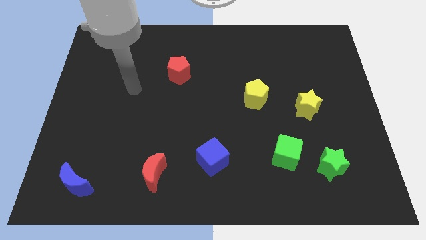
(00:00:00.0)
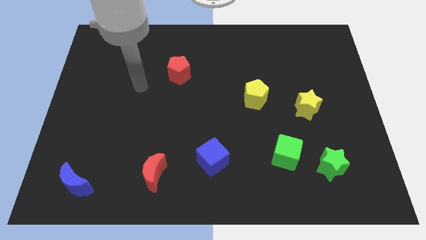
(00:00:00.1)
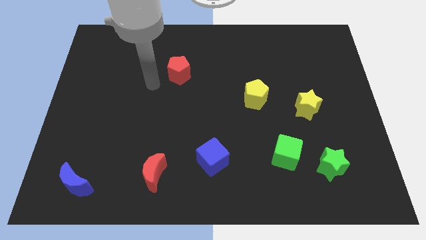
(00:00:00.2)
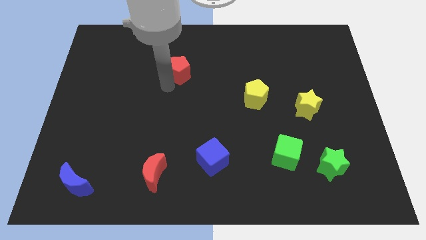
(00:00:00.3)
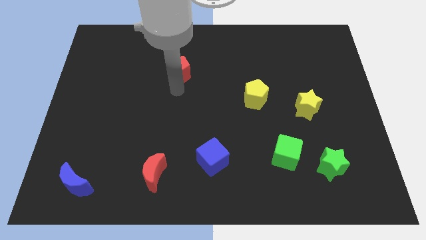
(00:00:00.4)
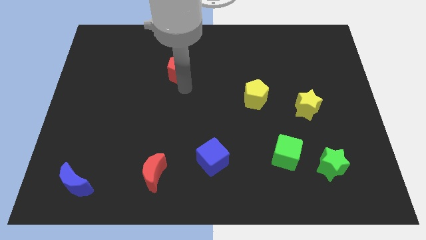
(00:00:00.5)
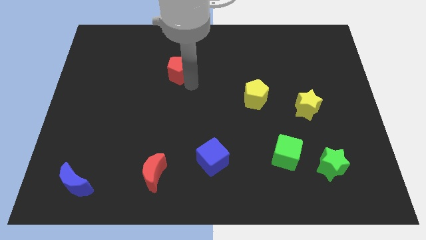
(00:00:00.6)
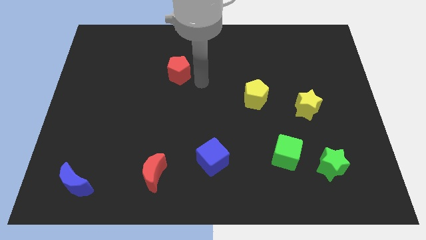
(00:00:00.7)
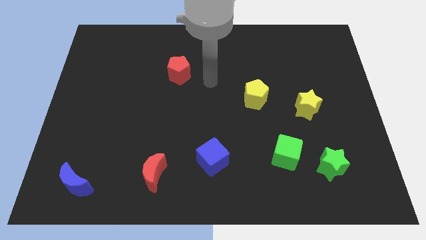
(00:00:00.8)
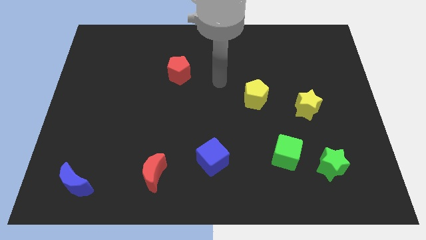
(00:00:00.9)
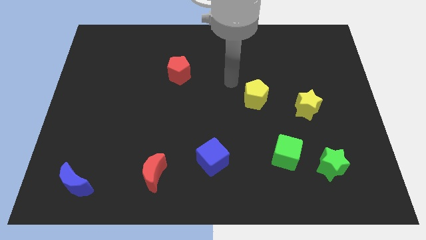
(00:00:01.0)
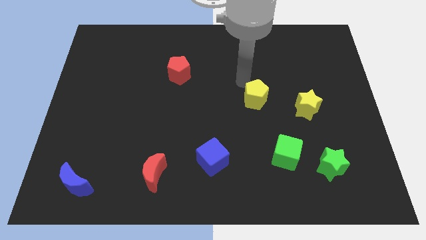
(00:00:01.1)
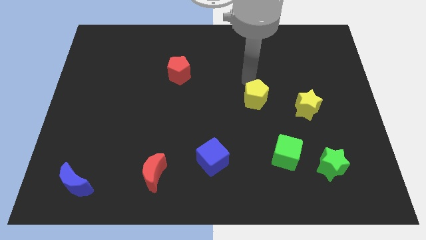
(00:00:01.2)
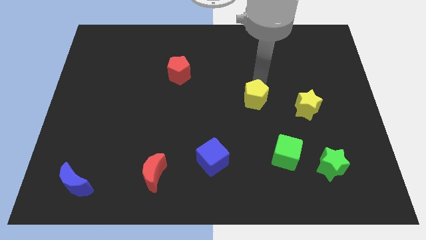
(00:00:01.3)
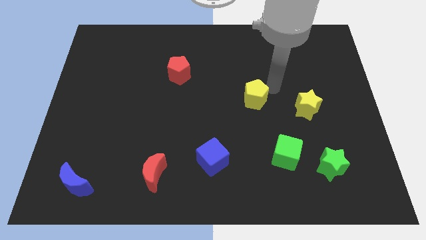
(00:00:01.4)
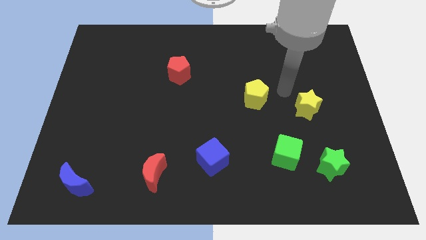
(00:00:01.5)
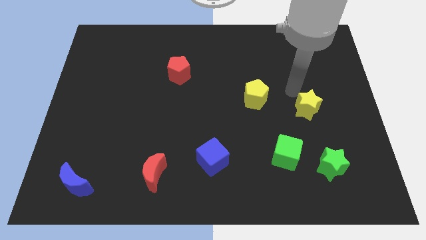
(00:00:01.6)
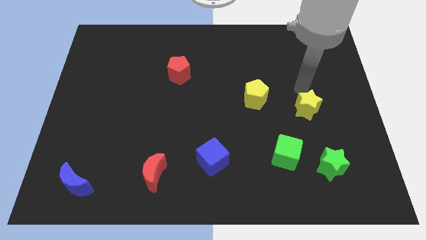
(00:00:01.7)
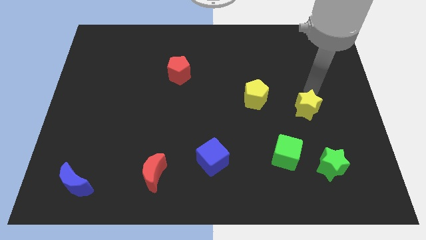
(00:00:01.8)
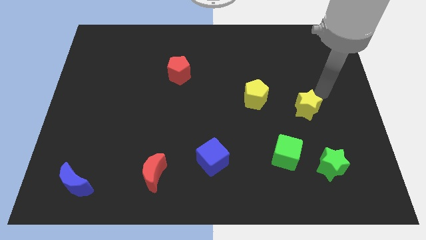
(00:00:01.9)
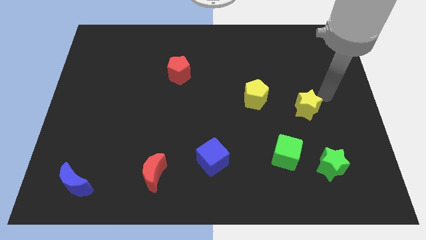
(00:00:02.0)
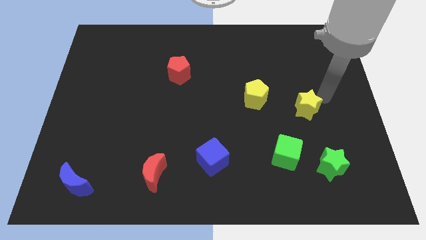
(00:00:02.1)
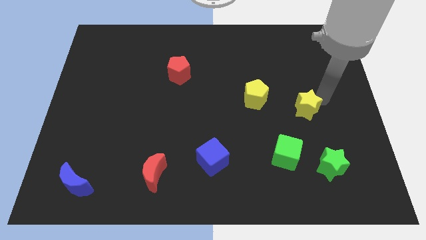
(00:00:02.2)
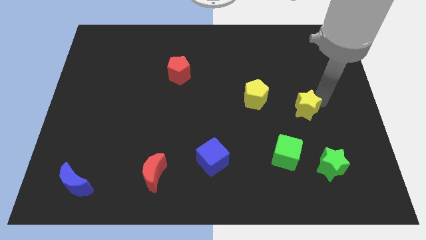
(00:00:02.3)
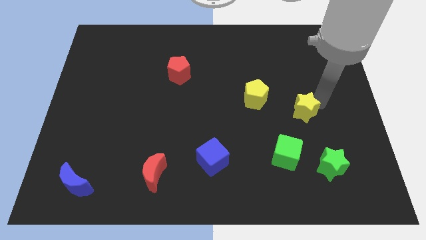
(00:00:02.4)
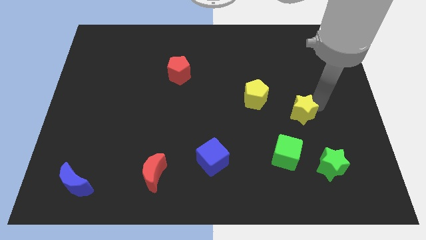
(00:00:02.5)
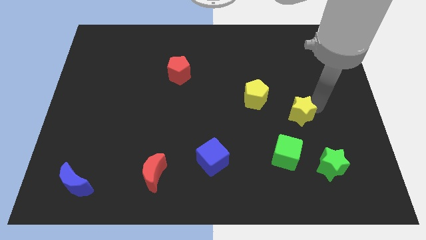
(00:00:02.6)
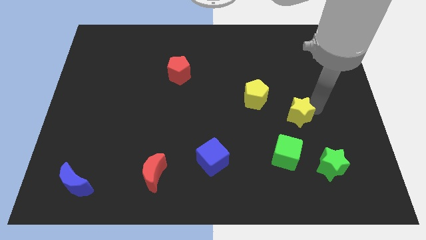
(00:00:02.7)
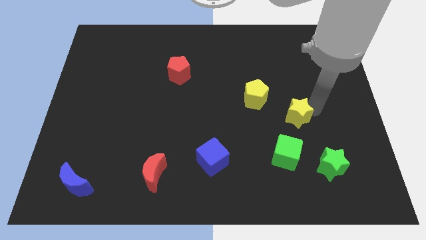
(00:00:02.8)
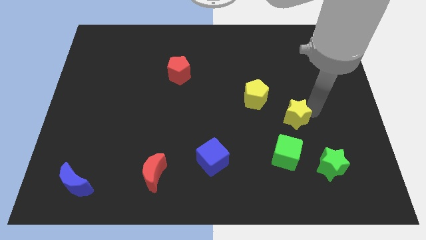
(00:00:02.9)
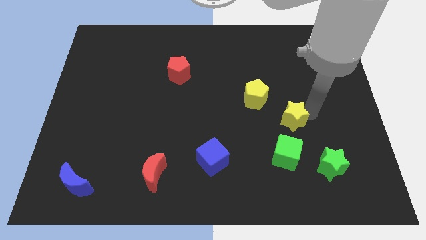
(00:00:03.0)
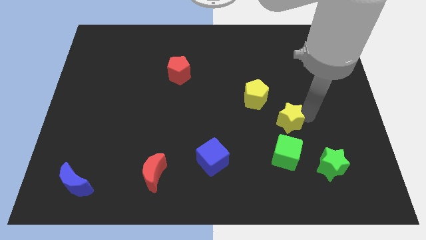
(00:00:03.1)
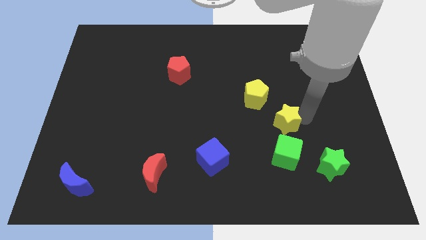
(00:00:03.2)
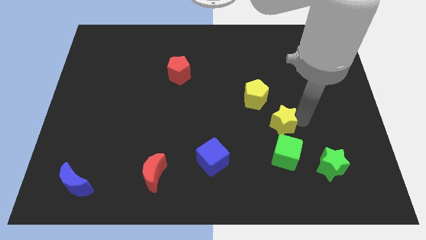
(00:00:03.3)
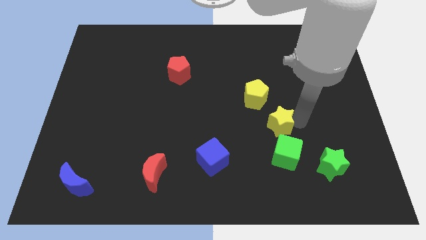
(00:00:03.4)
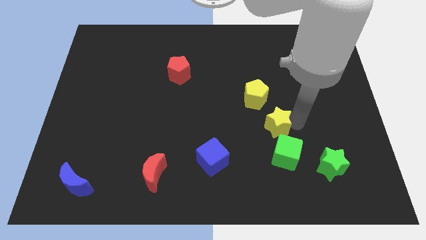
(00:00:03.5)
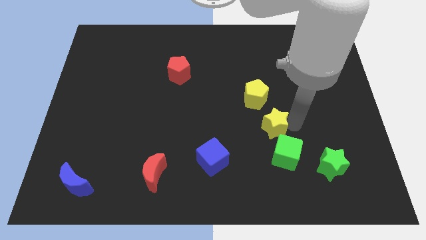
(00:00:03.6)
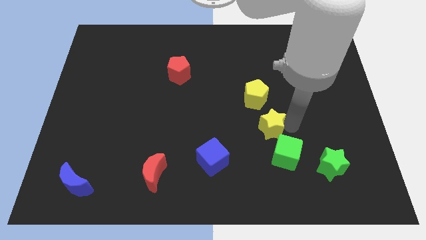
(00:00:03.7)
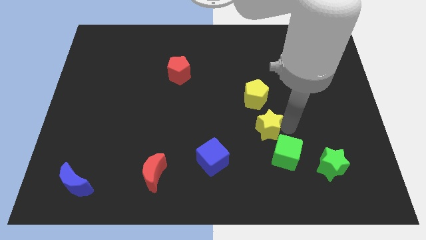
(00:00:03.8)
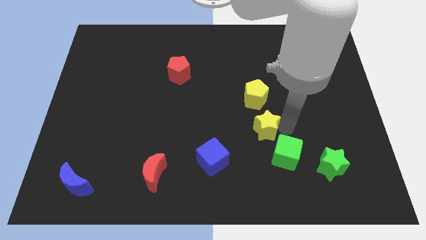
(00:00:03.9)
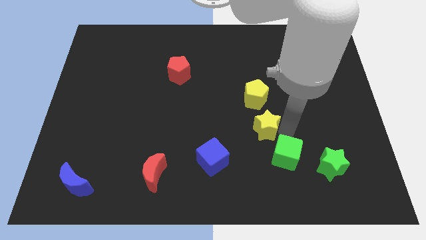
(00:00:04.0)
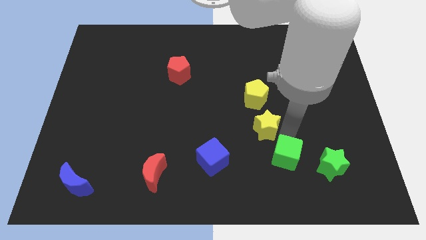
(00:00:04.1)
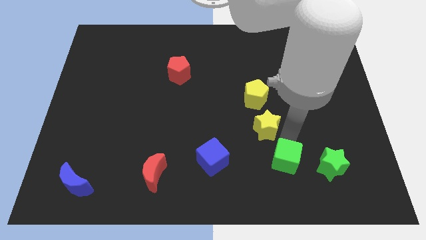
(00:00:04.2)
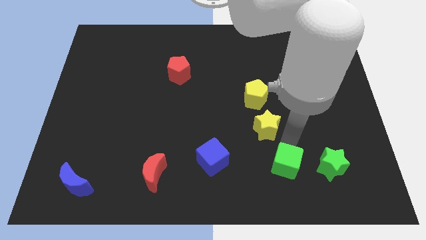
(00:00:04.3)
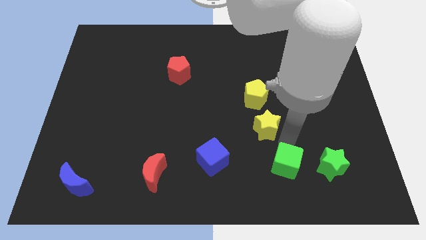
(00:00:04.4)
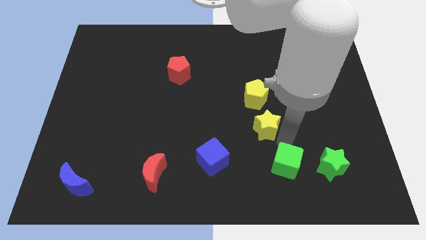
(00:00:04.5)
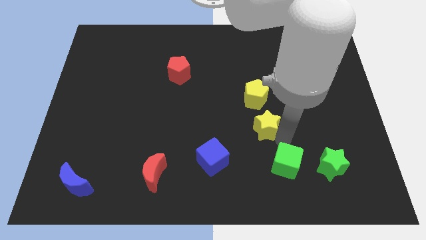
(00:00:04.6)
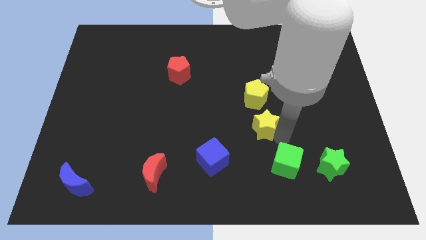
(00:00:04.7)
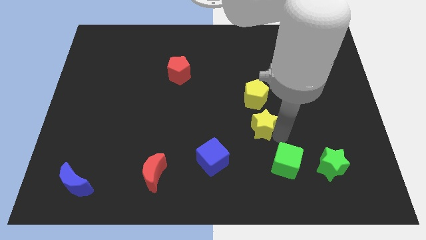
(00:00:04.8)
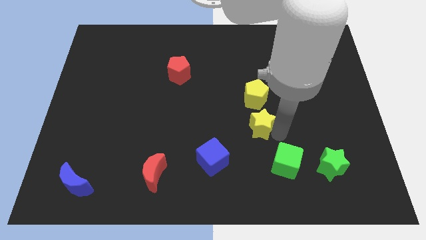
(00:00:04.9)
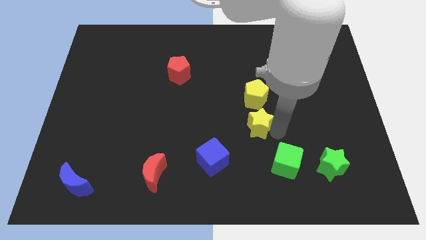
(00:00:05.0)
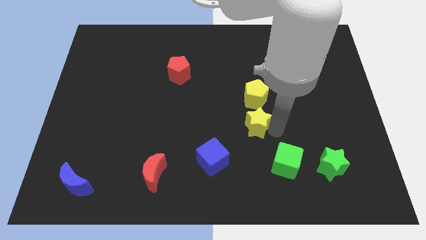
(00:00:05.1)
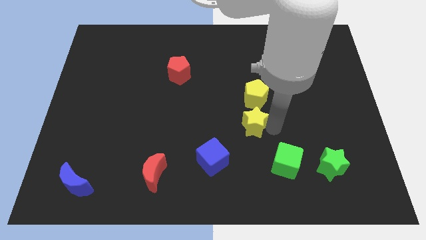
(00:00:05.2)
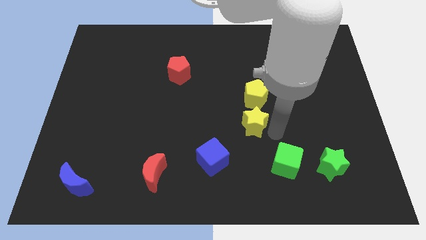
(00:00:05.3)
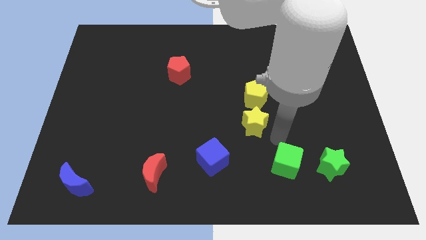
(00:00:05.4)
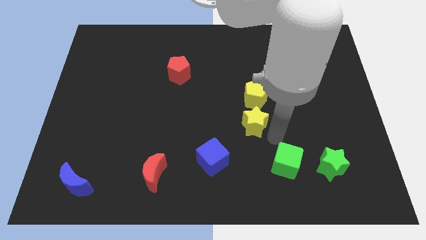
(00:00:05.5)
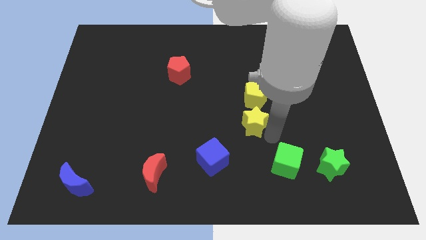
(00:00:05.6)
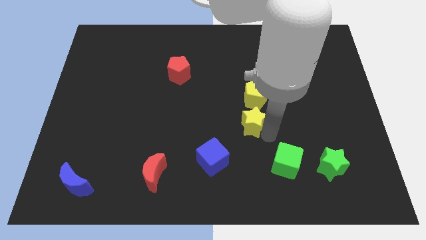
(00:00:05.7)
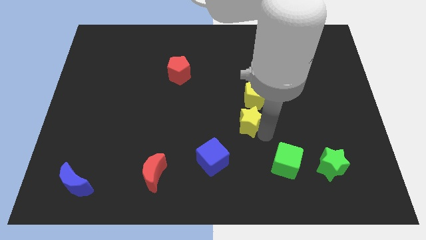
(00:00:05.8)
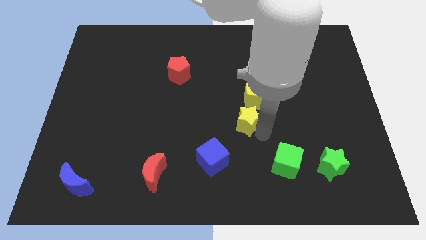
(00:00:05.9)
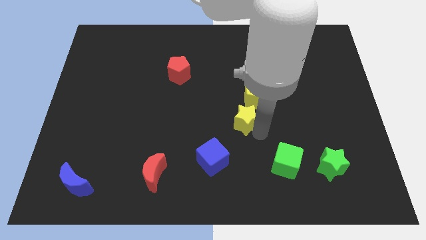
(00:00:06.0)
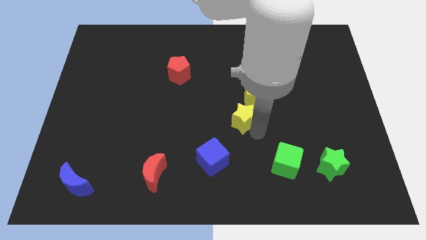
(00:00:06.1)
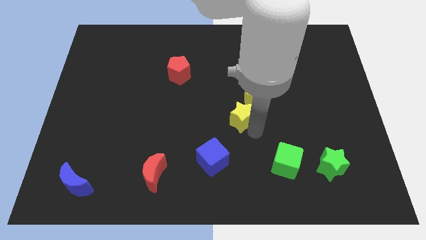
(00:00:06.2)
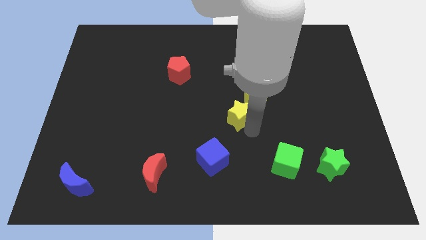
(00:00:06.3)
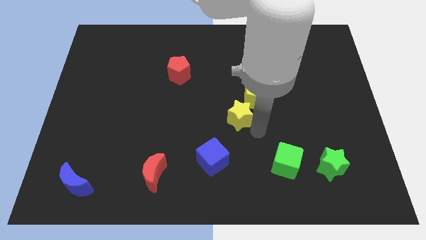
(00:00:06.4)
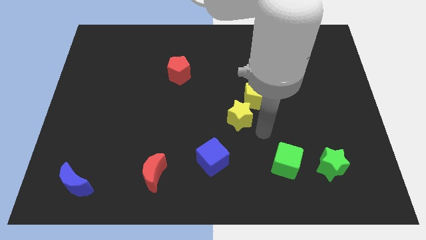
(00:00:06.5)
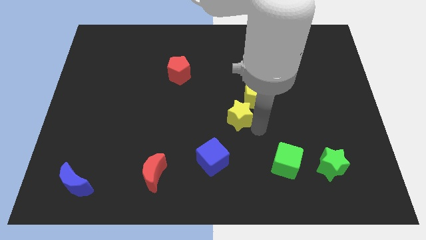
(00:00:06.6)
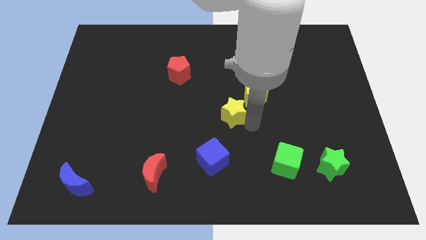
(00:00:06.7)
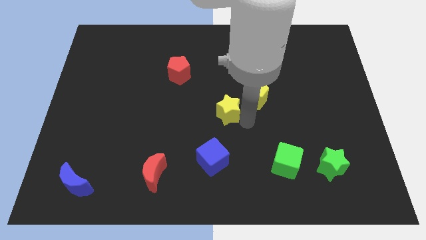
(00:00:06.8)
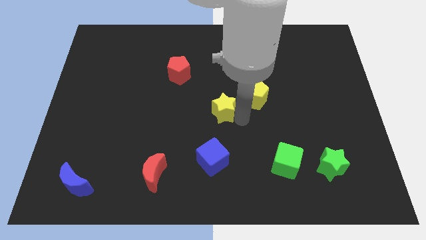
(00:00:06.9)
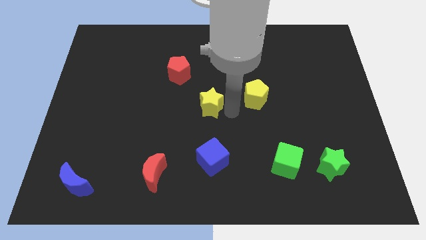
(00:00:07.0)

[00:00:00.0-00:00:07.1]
push the yellow star left

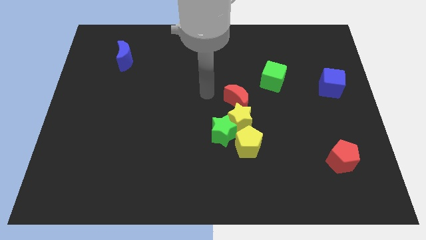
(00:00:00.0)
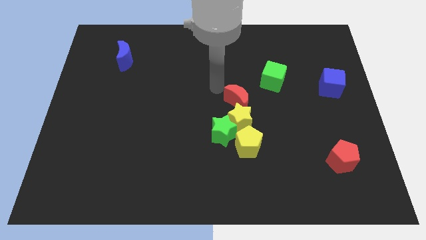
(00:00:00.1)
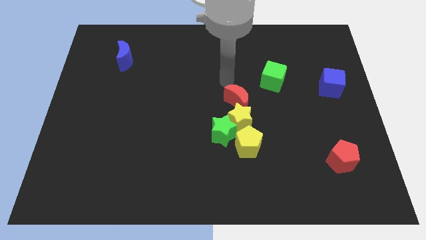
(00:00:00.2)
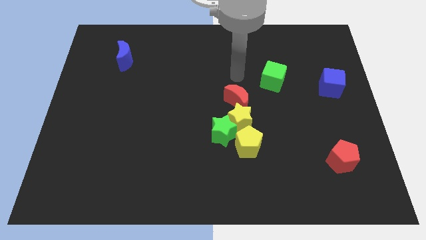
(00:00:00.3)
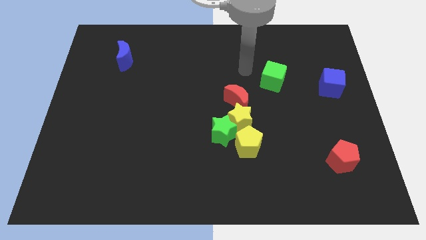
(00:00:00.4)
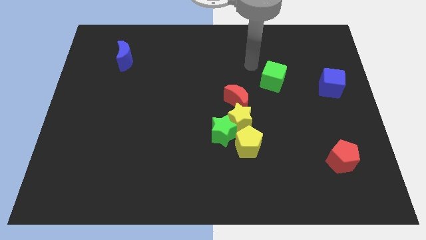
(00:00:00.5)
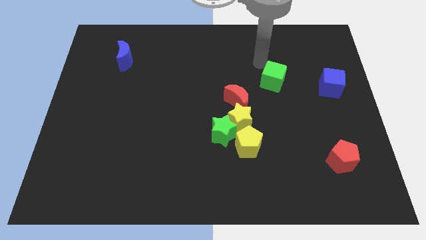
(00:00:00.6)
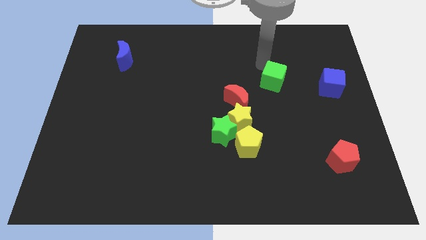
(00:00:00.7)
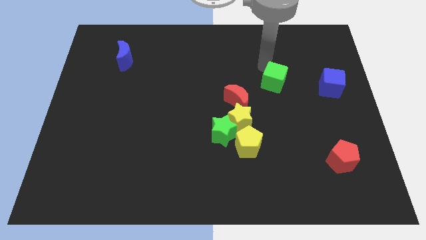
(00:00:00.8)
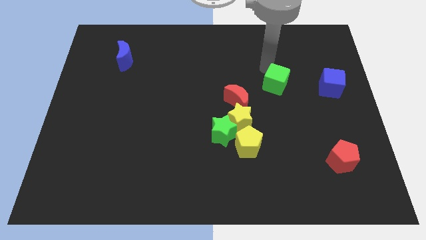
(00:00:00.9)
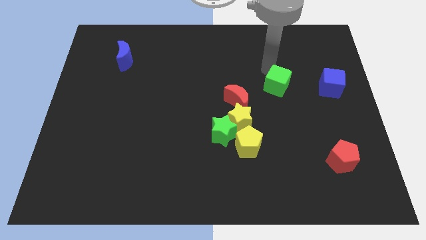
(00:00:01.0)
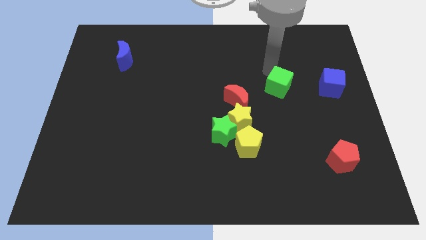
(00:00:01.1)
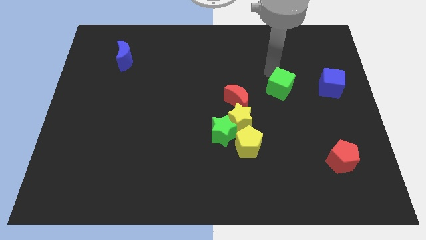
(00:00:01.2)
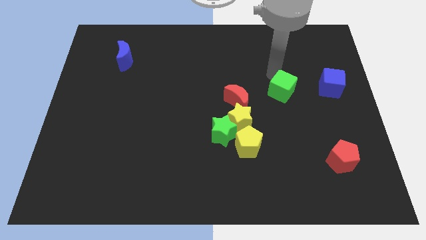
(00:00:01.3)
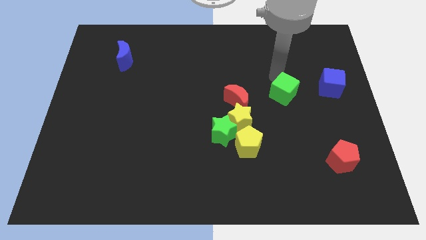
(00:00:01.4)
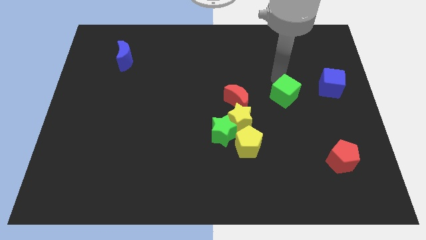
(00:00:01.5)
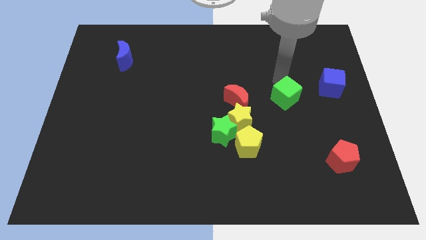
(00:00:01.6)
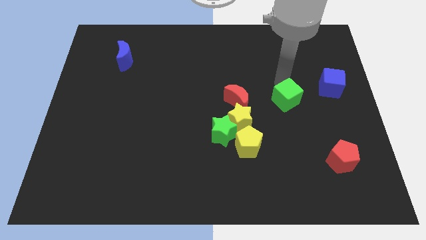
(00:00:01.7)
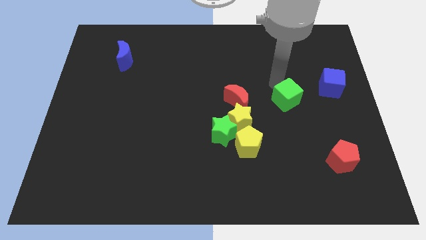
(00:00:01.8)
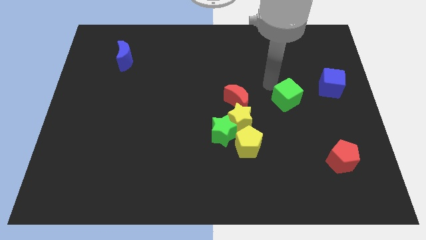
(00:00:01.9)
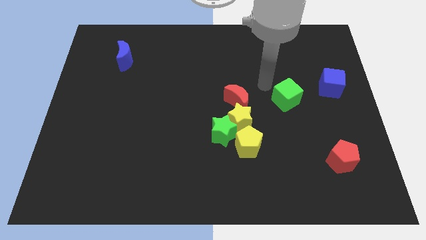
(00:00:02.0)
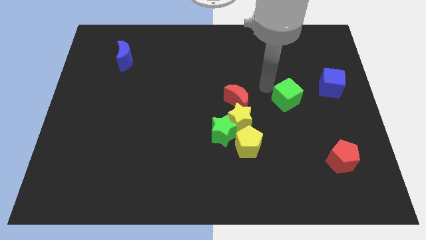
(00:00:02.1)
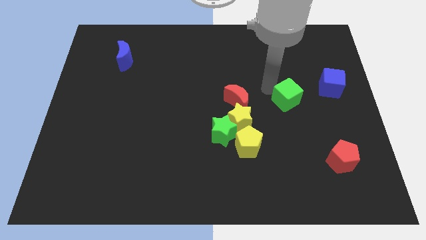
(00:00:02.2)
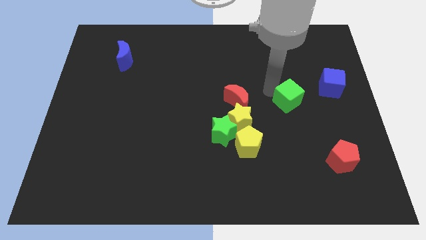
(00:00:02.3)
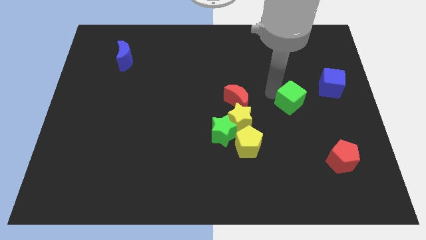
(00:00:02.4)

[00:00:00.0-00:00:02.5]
slide the green cube downwards and to the right a little bit
